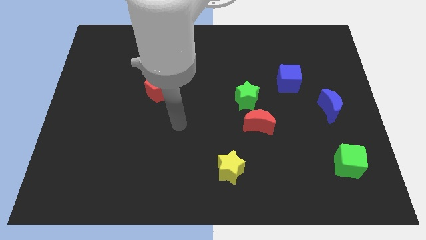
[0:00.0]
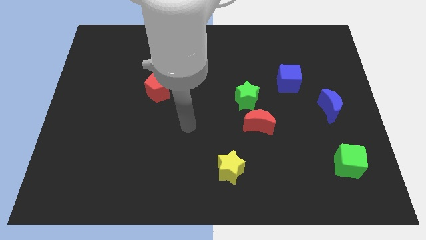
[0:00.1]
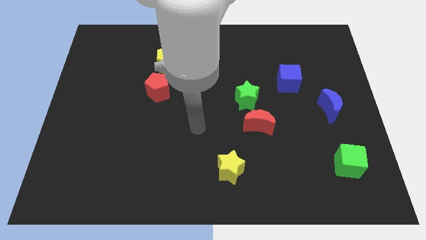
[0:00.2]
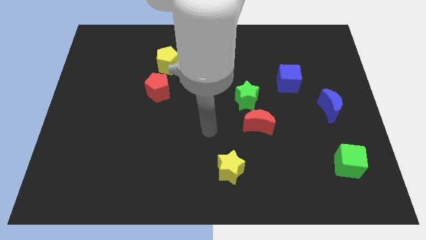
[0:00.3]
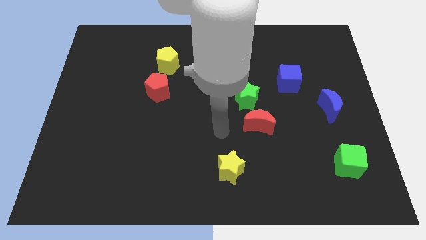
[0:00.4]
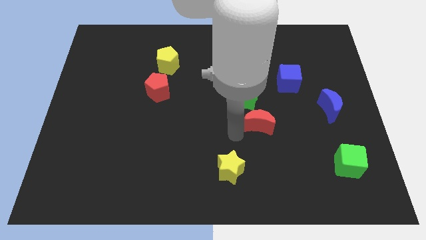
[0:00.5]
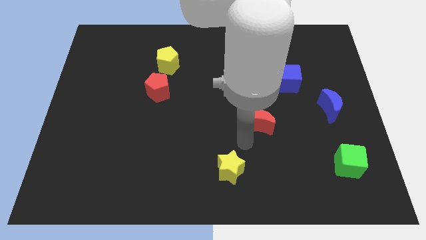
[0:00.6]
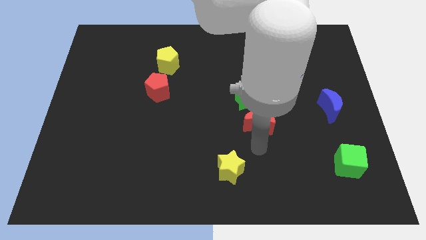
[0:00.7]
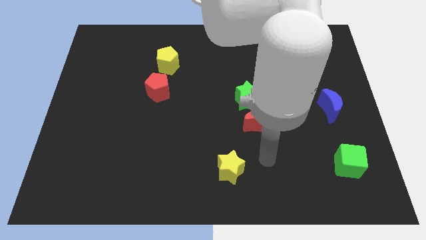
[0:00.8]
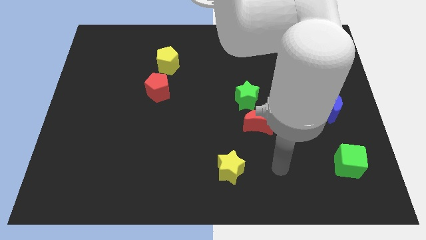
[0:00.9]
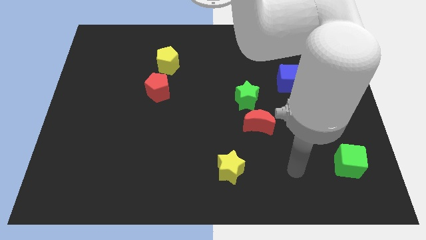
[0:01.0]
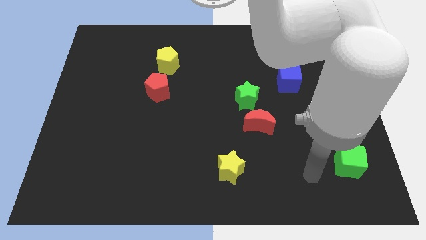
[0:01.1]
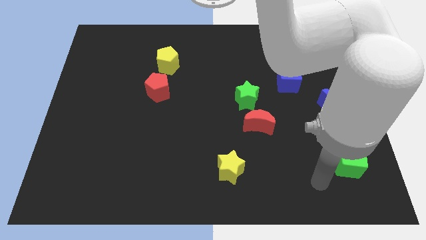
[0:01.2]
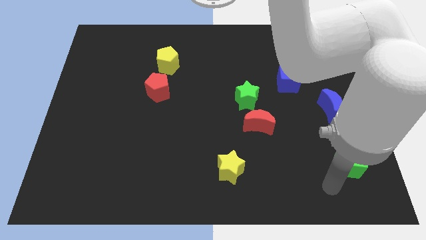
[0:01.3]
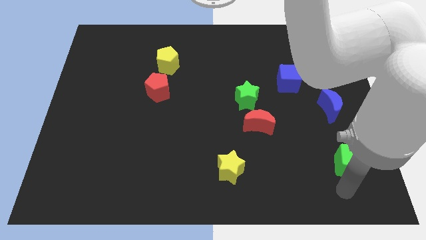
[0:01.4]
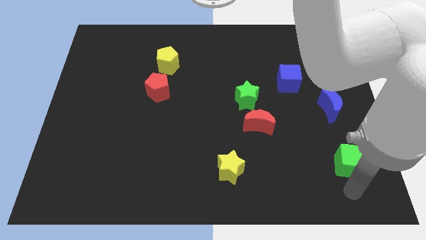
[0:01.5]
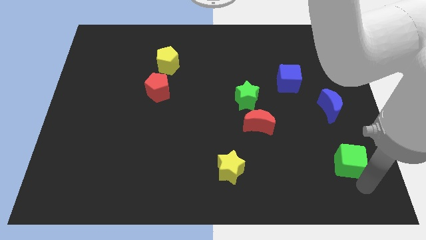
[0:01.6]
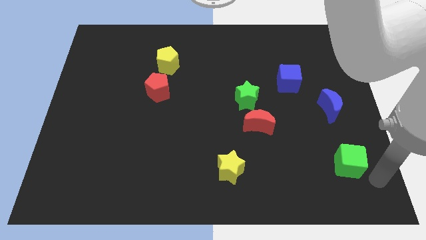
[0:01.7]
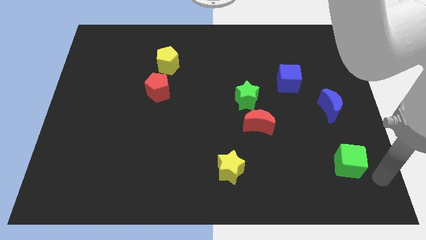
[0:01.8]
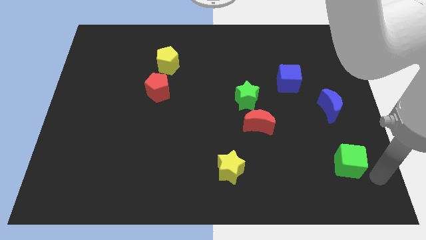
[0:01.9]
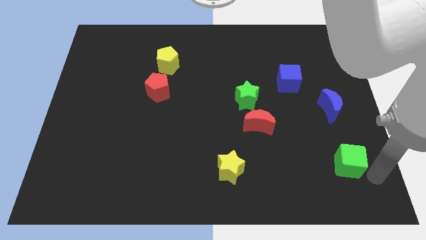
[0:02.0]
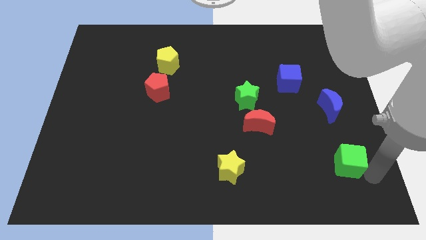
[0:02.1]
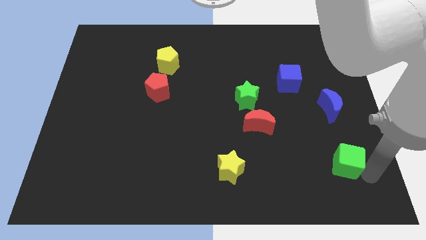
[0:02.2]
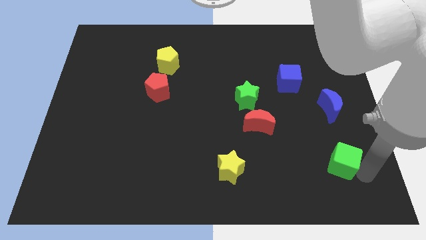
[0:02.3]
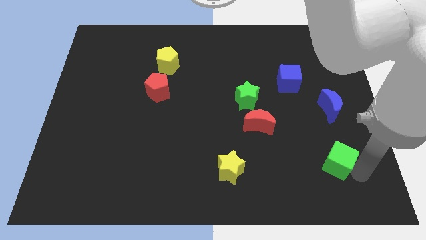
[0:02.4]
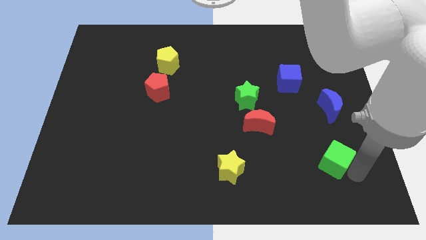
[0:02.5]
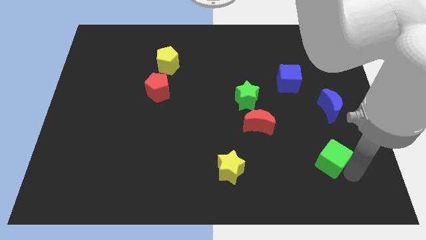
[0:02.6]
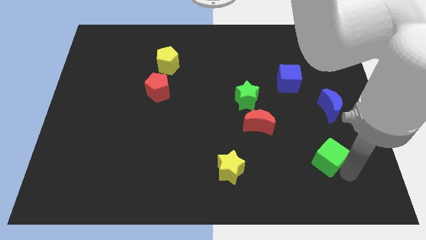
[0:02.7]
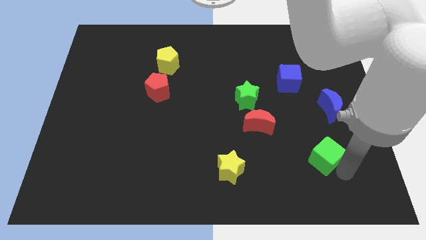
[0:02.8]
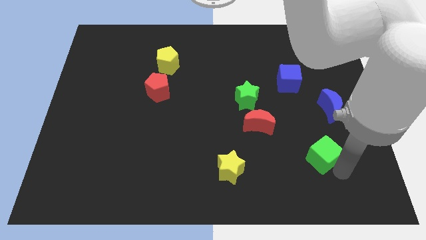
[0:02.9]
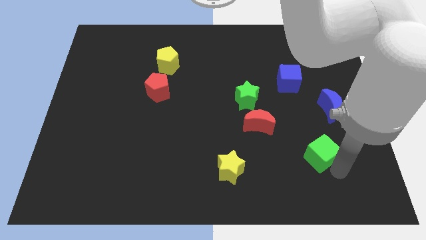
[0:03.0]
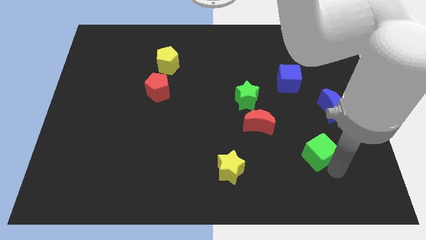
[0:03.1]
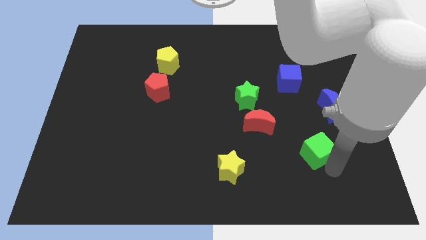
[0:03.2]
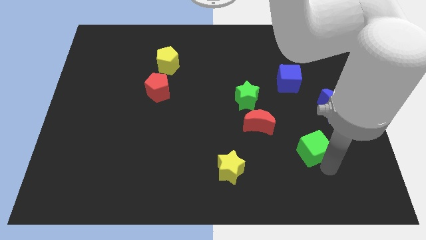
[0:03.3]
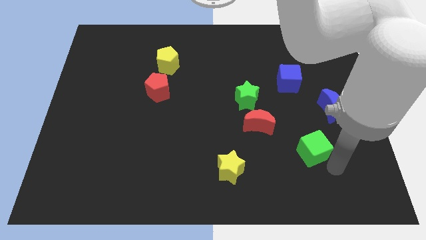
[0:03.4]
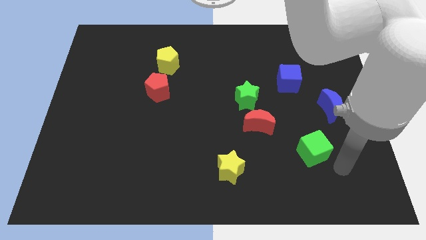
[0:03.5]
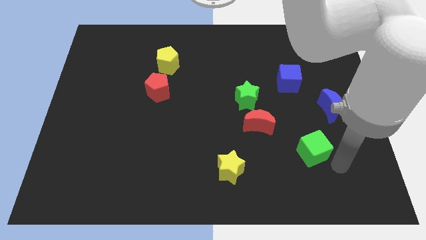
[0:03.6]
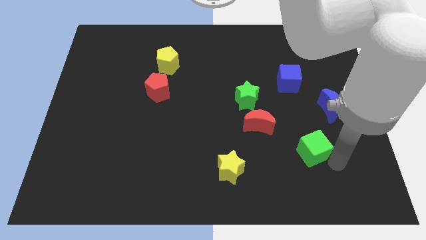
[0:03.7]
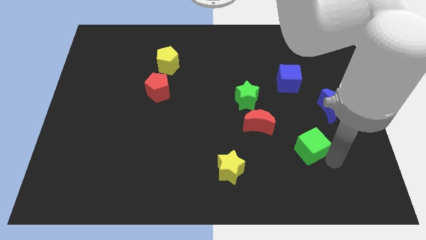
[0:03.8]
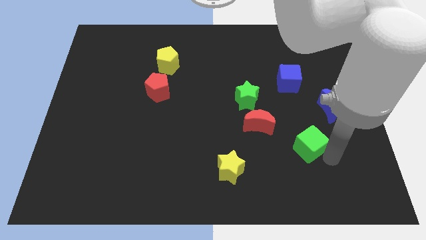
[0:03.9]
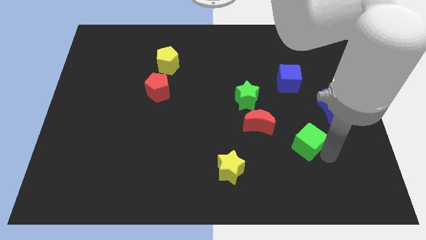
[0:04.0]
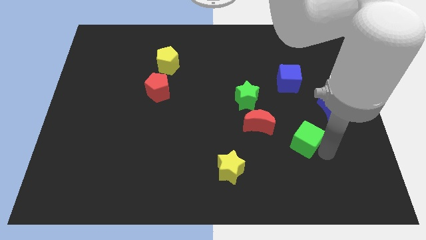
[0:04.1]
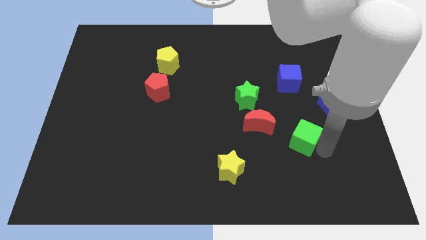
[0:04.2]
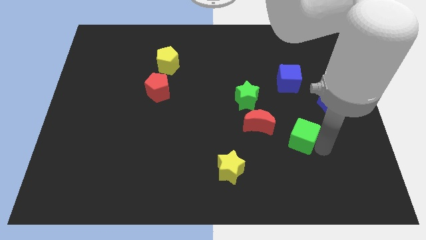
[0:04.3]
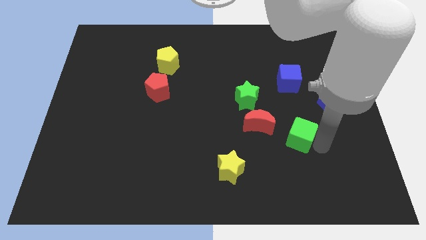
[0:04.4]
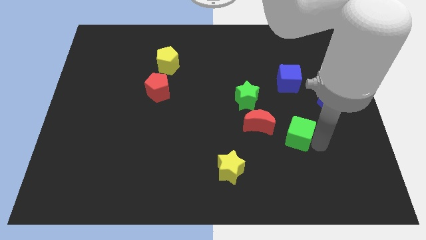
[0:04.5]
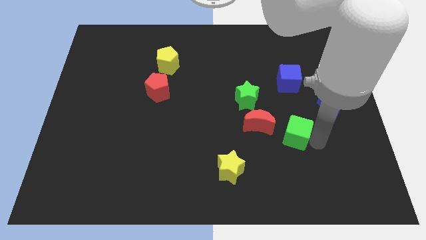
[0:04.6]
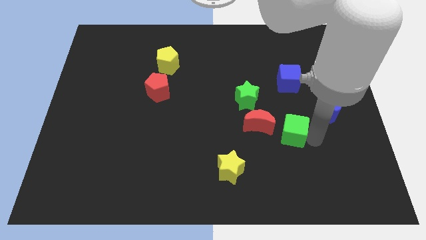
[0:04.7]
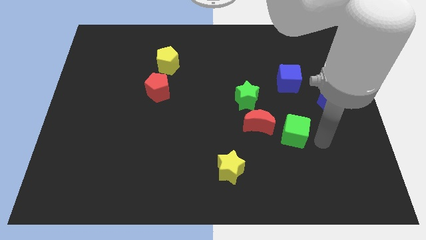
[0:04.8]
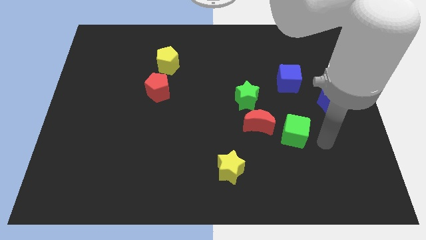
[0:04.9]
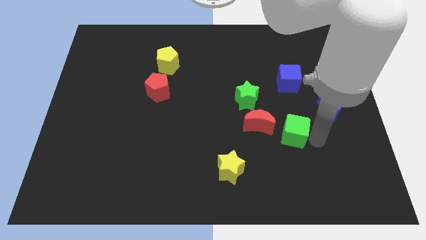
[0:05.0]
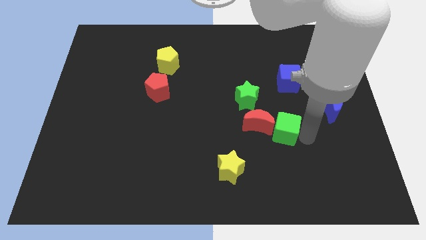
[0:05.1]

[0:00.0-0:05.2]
slide the green cube to the red moon

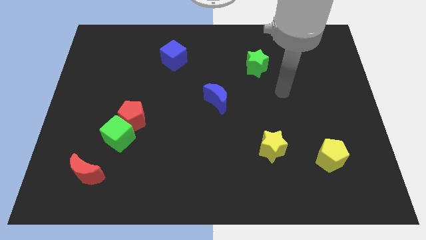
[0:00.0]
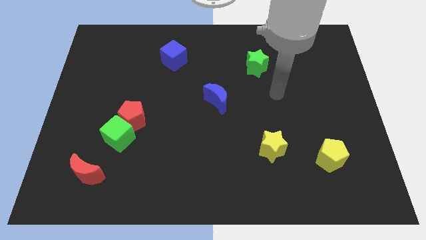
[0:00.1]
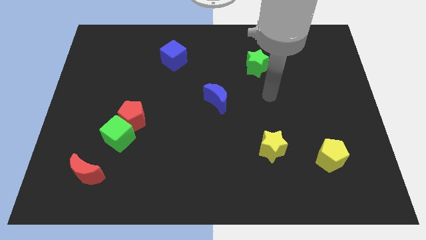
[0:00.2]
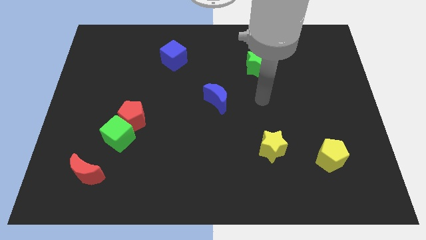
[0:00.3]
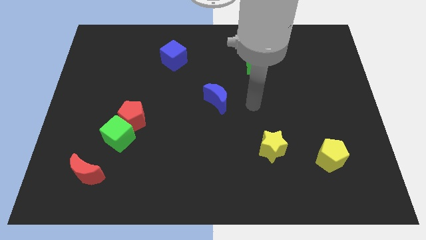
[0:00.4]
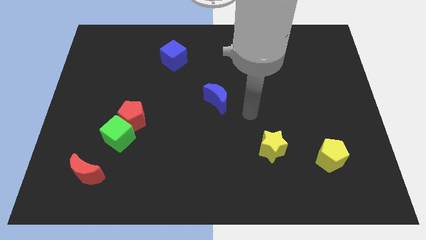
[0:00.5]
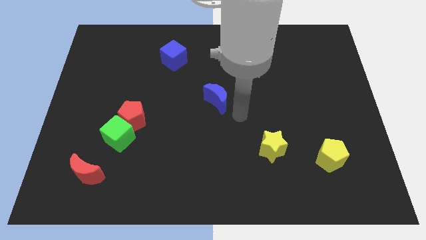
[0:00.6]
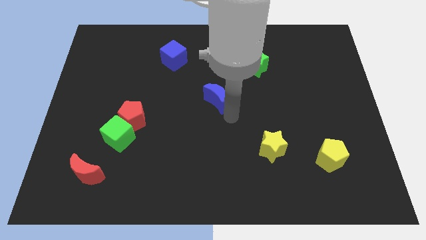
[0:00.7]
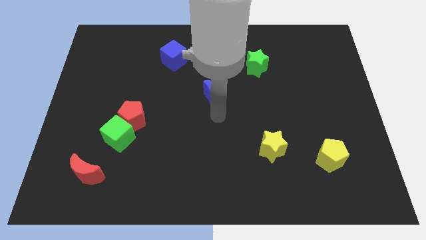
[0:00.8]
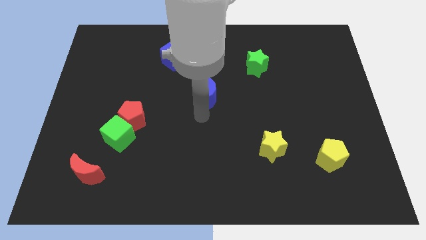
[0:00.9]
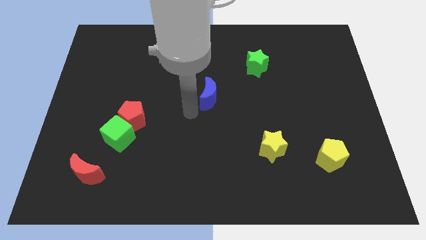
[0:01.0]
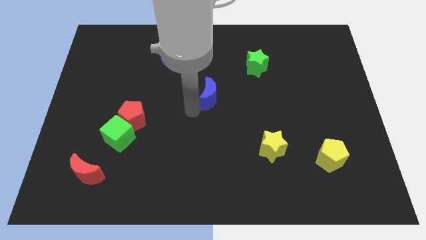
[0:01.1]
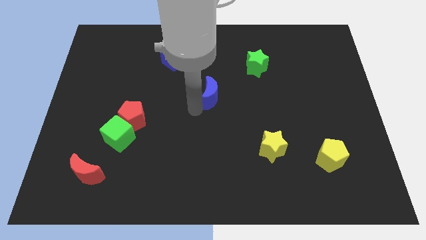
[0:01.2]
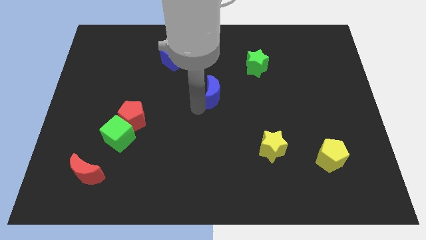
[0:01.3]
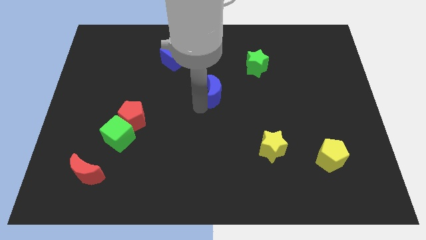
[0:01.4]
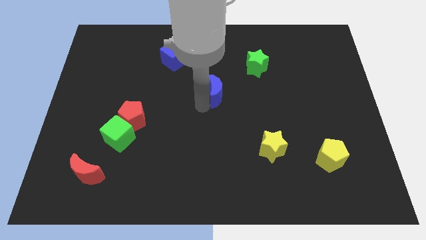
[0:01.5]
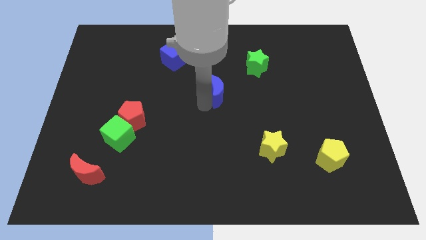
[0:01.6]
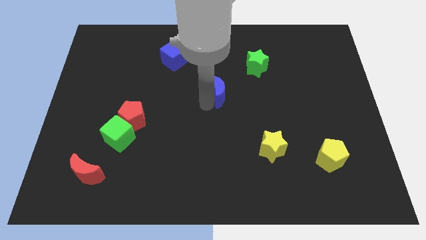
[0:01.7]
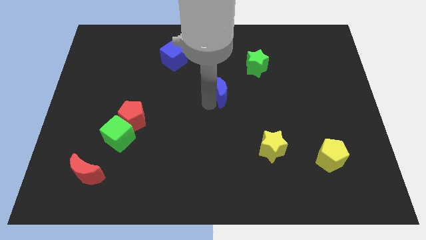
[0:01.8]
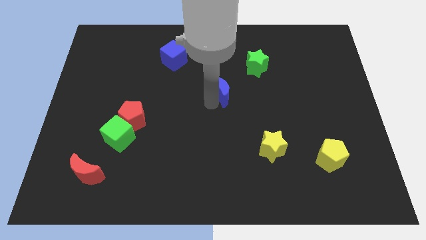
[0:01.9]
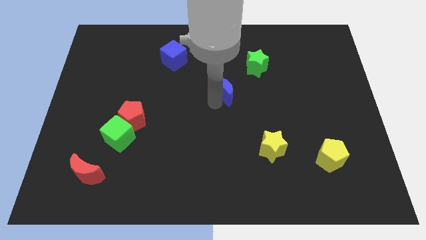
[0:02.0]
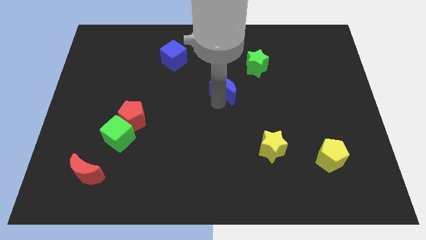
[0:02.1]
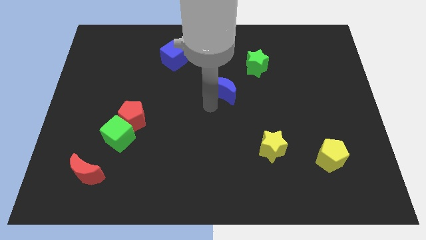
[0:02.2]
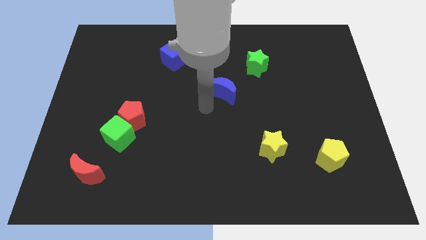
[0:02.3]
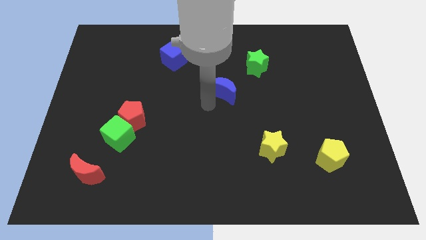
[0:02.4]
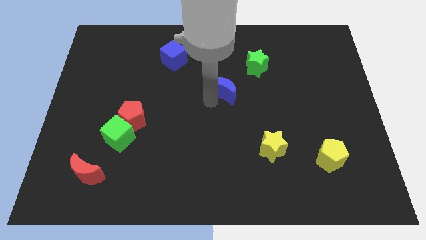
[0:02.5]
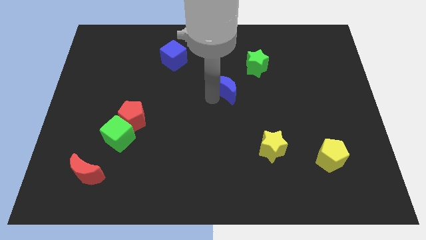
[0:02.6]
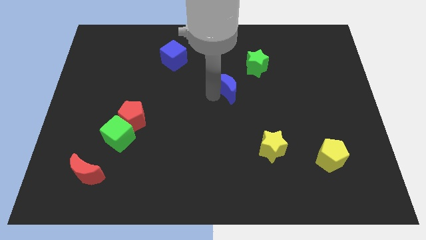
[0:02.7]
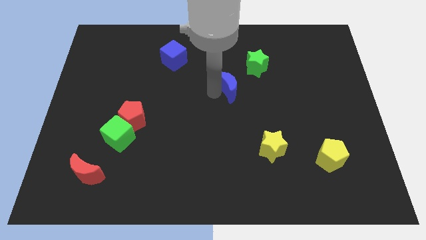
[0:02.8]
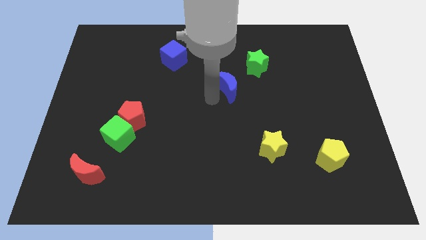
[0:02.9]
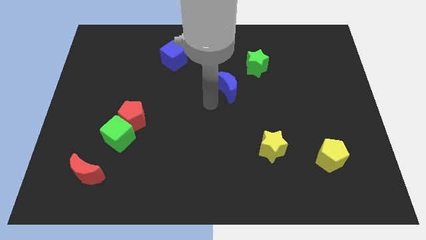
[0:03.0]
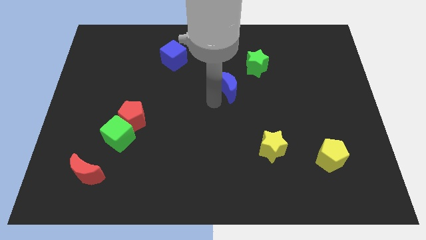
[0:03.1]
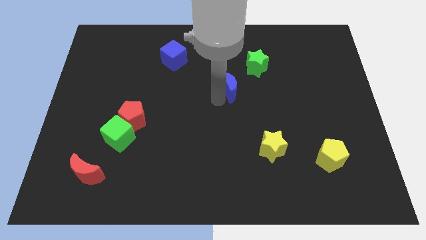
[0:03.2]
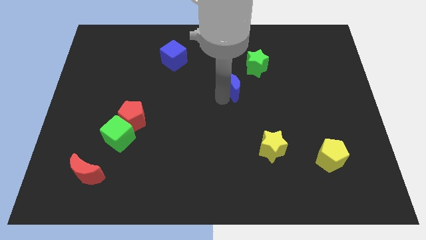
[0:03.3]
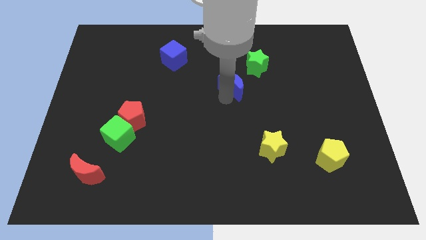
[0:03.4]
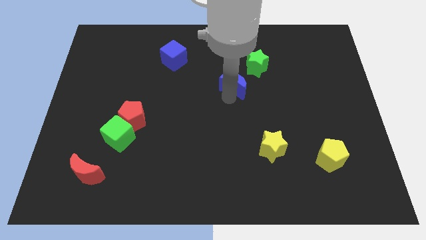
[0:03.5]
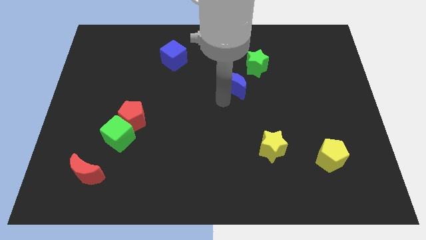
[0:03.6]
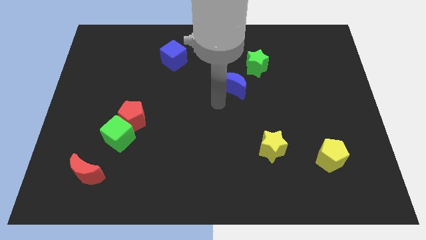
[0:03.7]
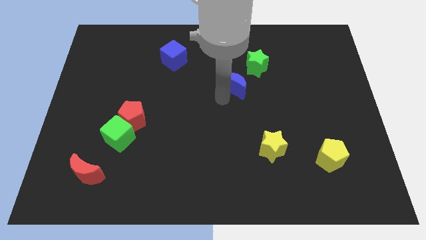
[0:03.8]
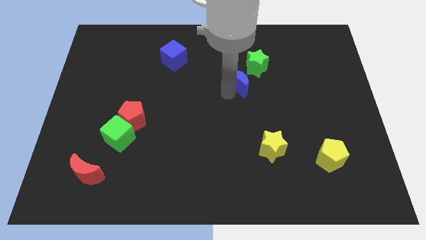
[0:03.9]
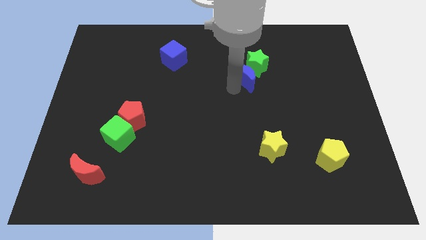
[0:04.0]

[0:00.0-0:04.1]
slide the blue moon to the green star
